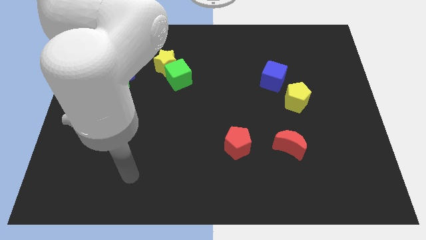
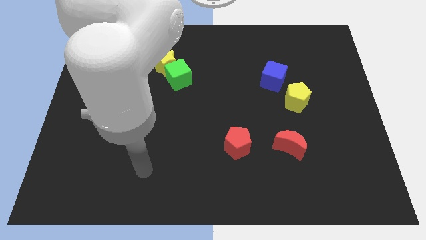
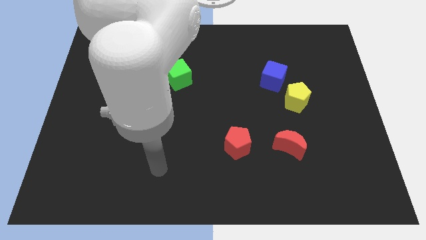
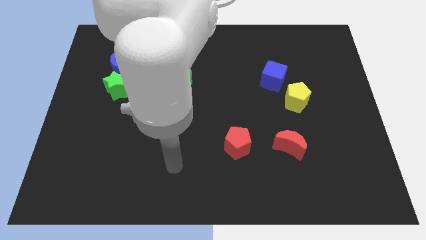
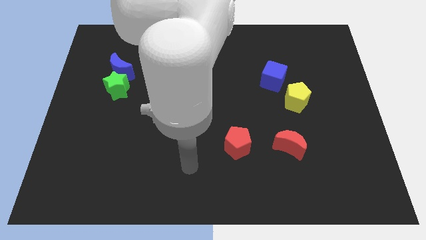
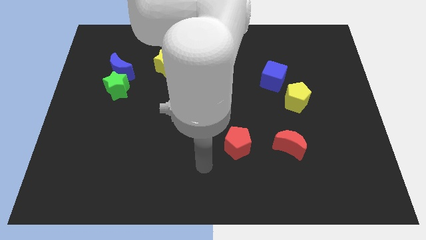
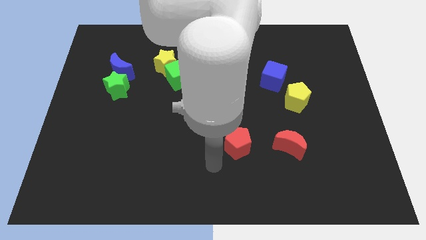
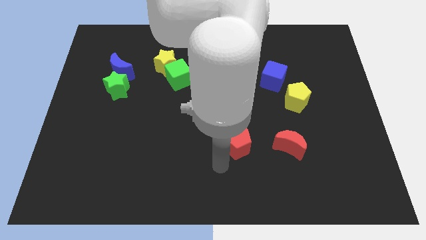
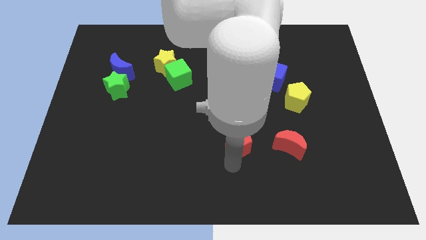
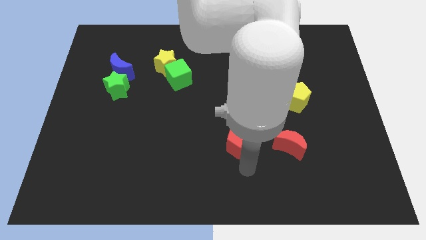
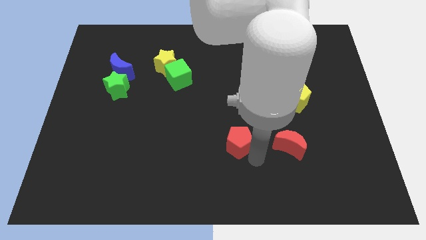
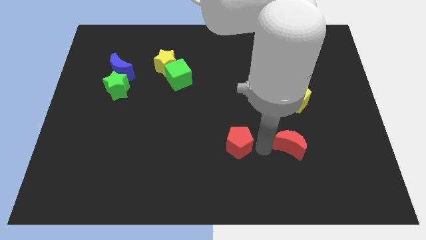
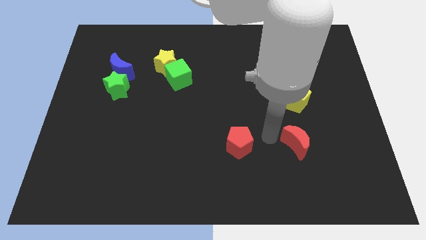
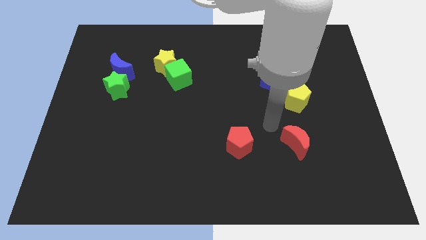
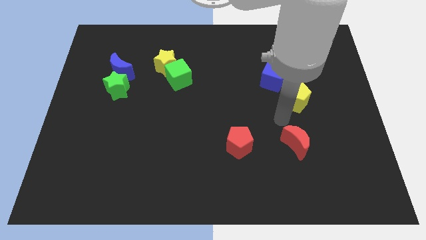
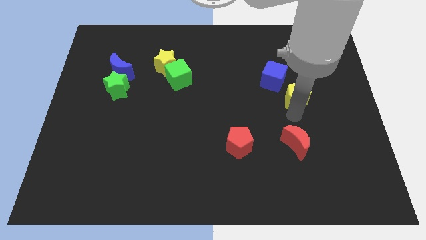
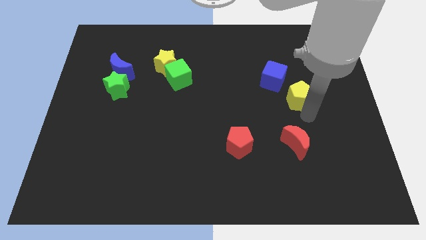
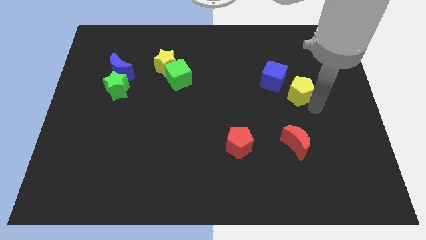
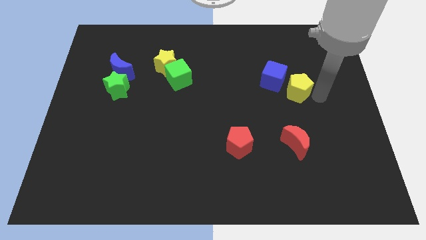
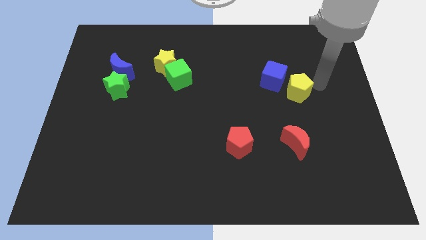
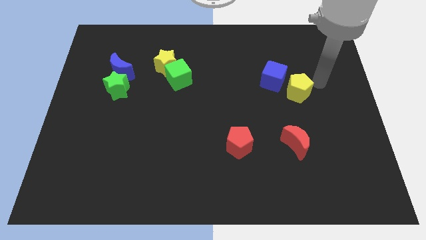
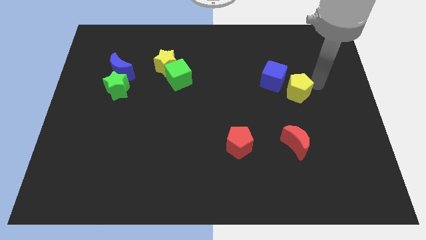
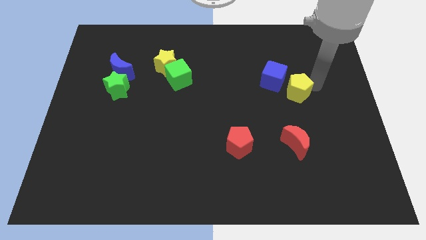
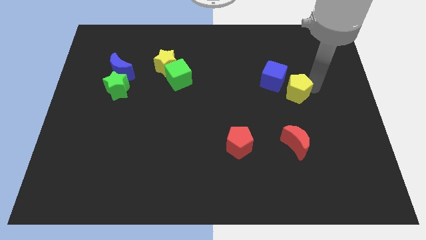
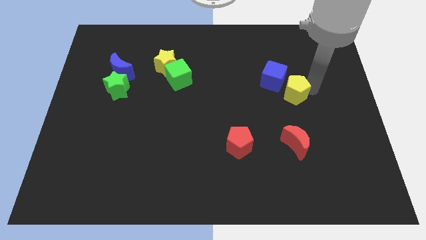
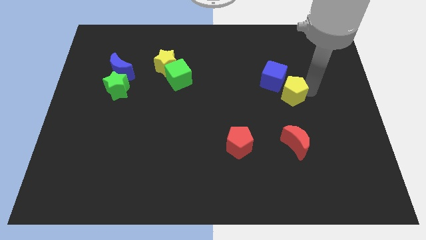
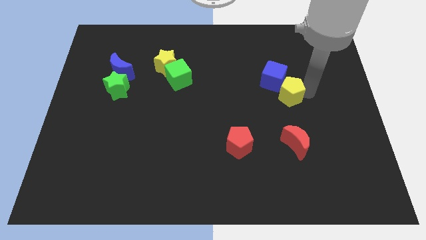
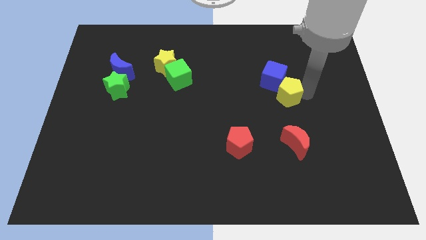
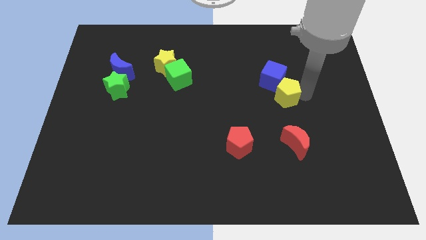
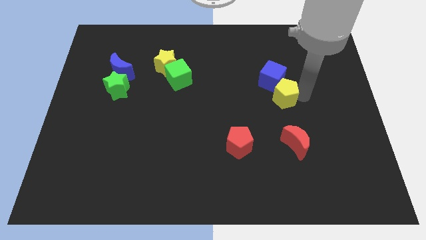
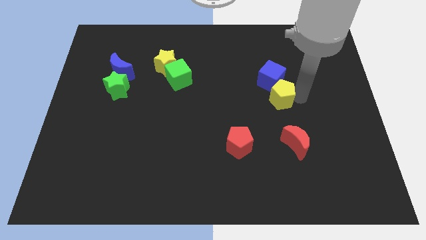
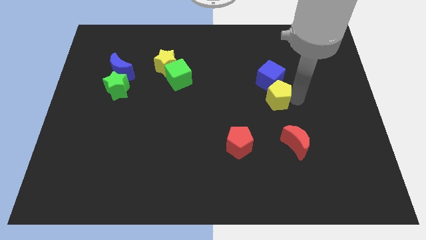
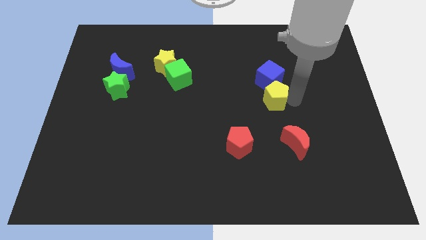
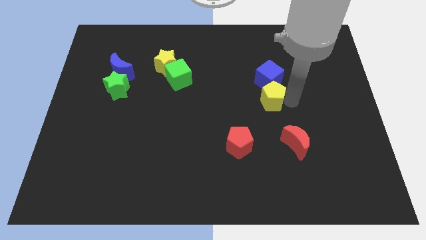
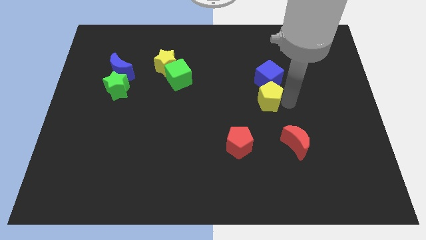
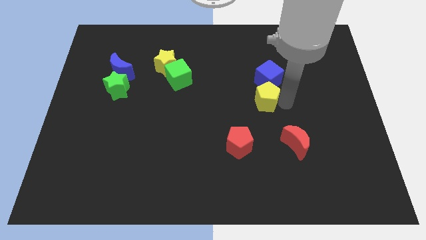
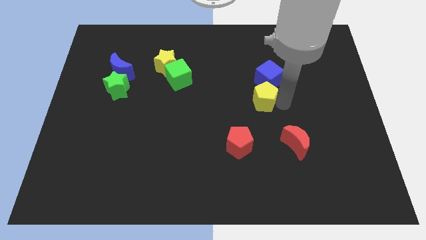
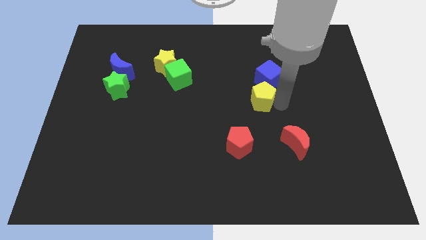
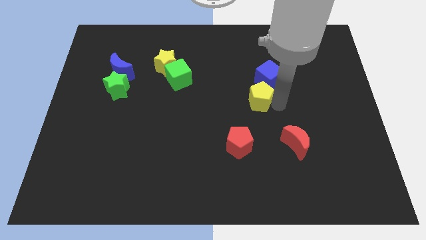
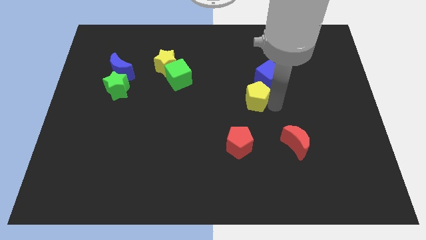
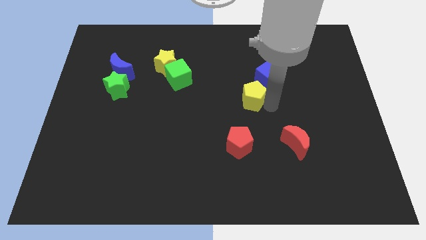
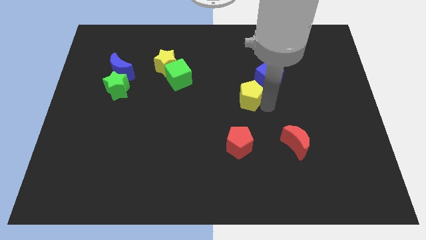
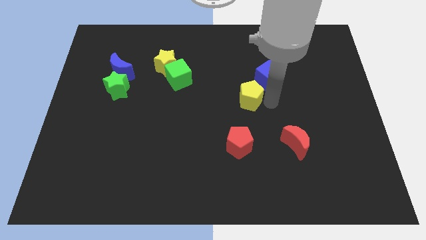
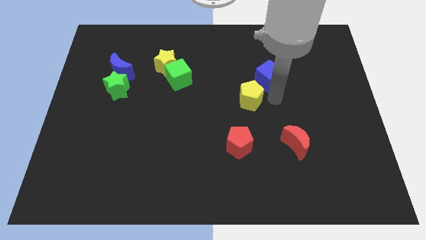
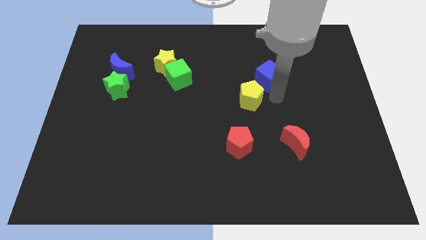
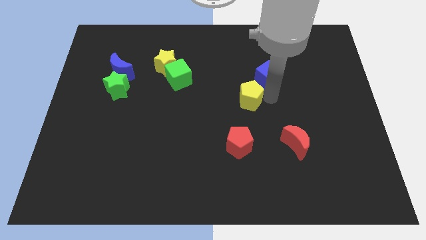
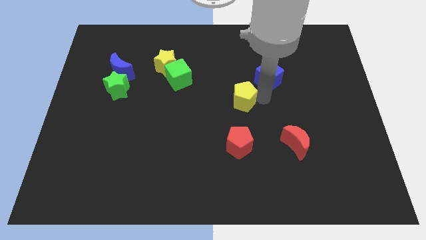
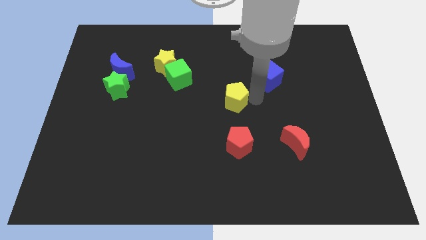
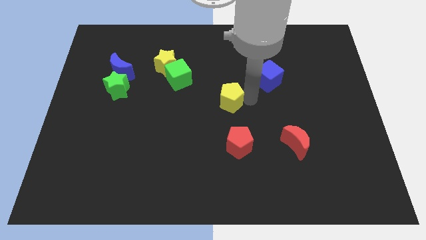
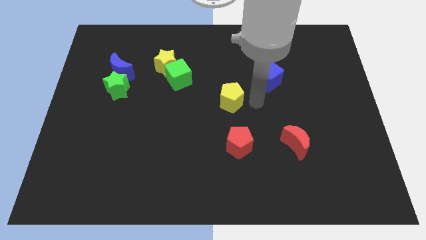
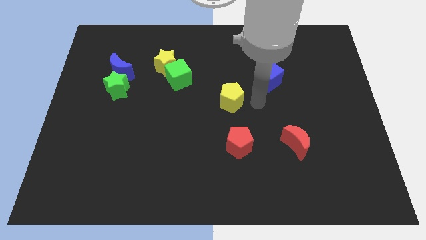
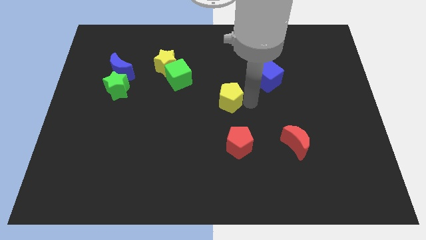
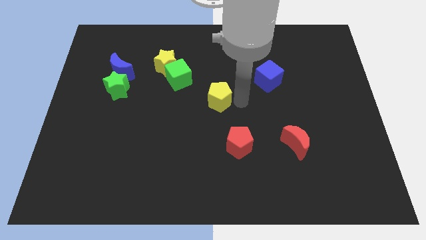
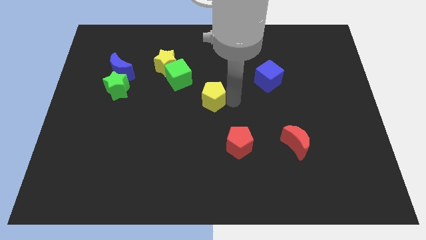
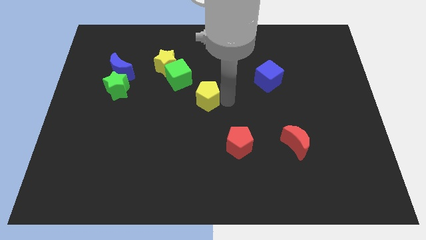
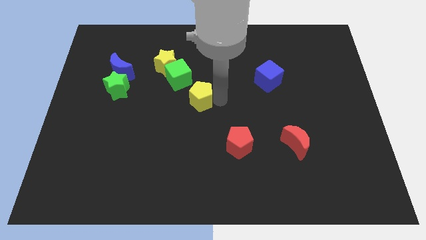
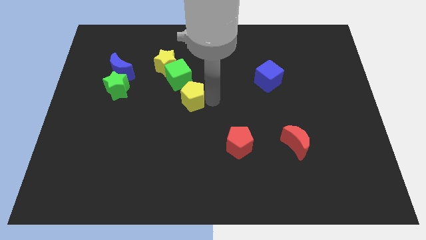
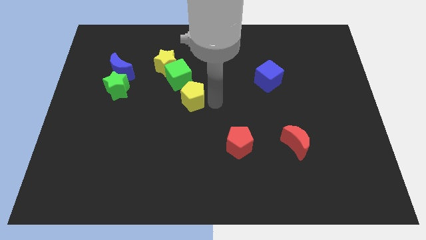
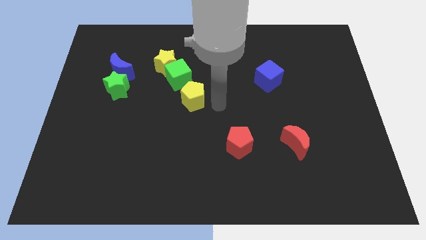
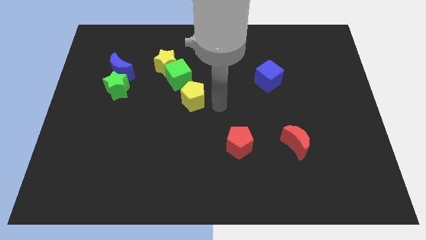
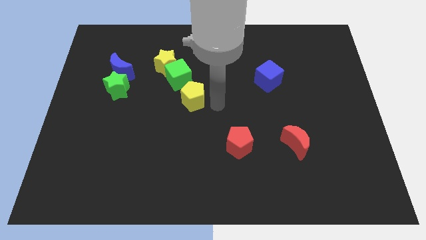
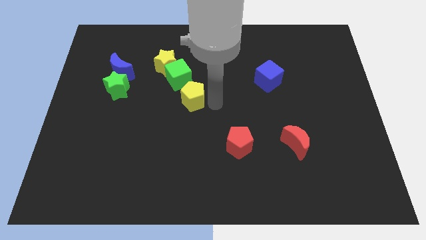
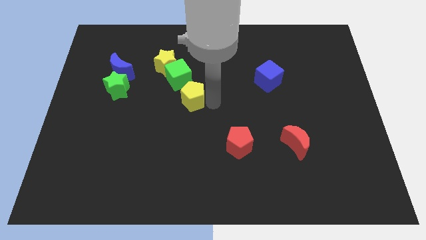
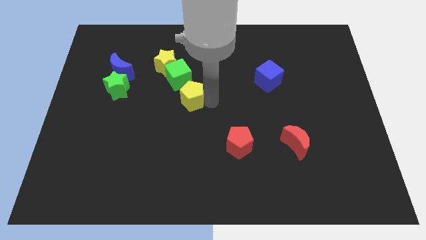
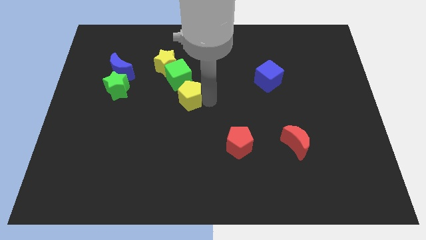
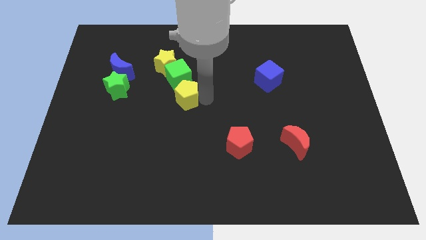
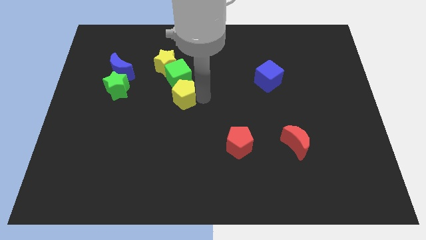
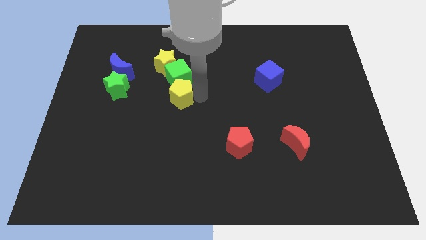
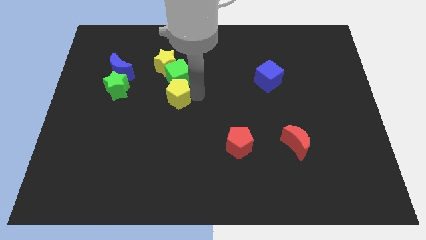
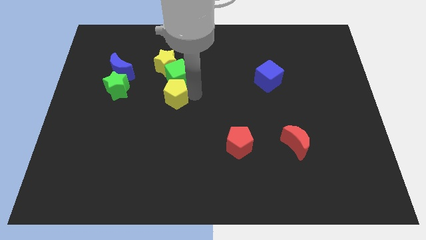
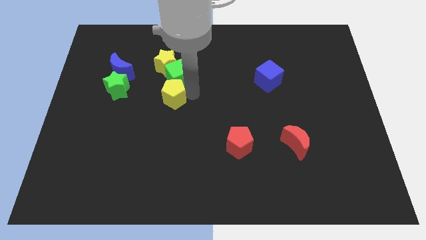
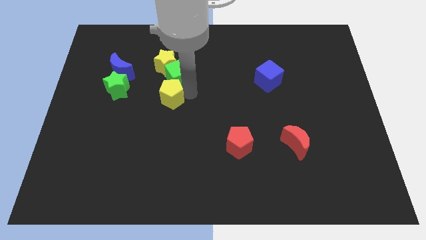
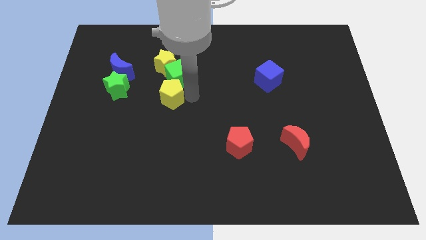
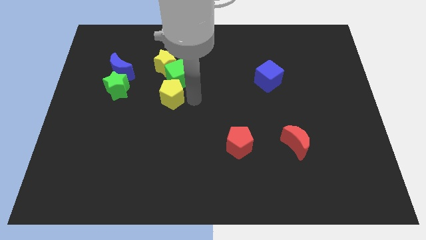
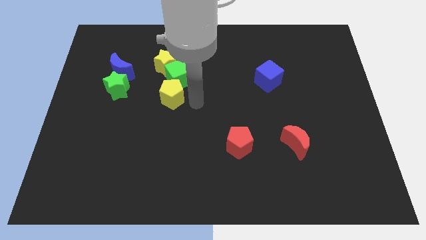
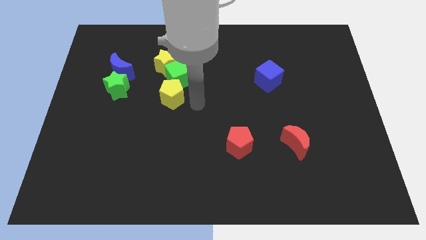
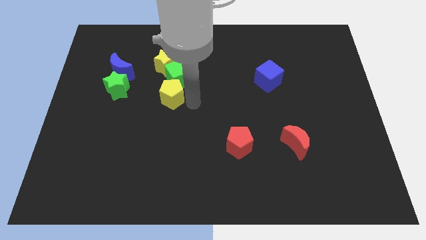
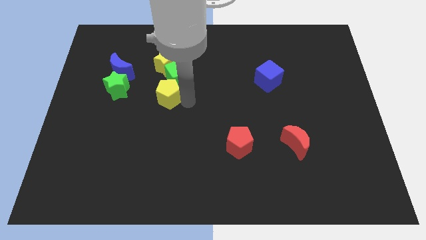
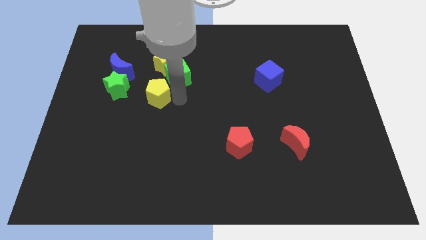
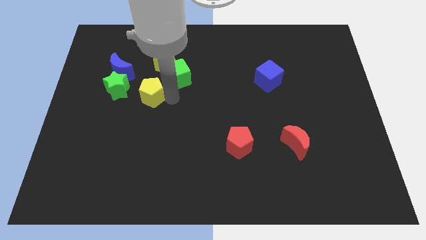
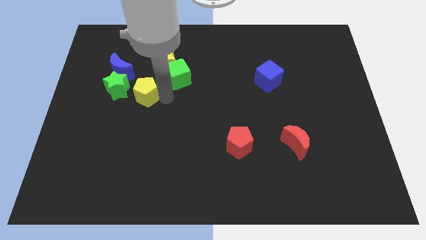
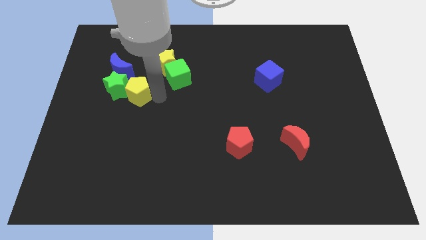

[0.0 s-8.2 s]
slide the yellow pentagon towards the green star
